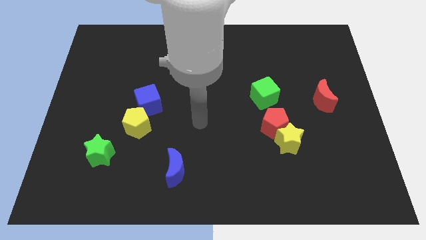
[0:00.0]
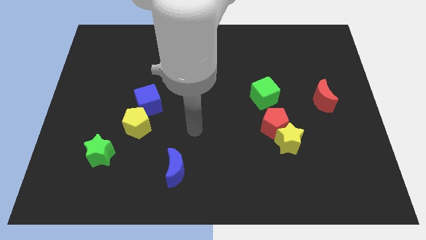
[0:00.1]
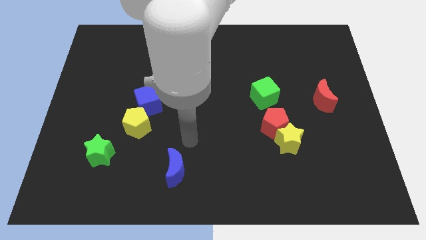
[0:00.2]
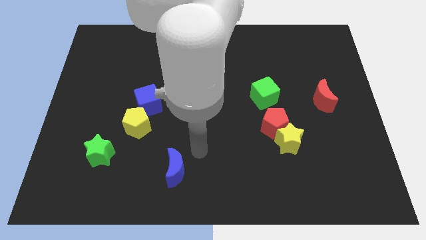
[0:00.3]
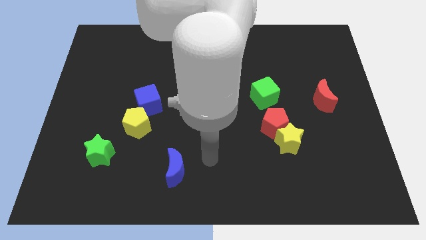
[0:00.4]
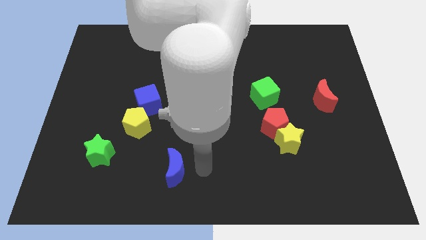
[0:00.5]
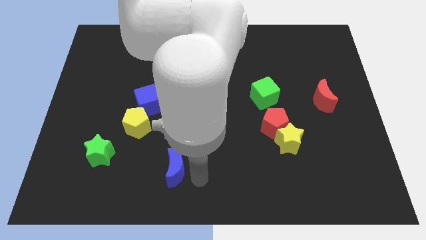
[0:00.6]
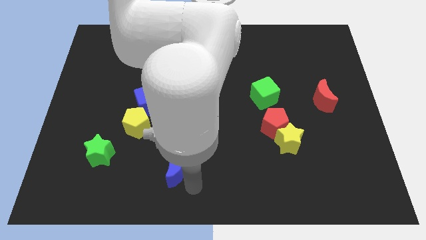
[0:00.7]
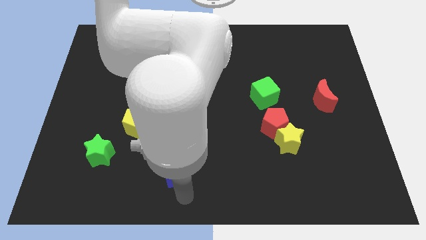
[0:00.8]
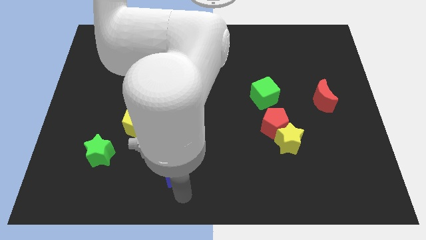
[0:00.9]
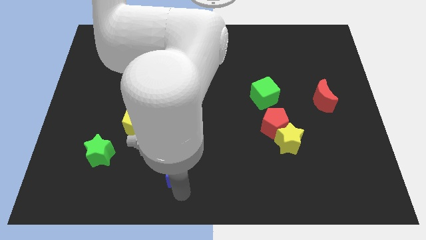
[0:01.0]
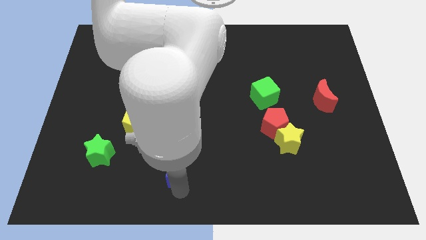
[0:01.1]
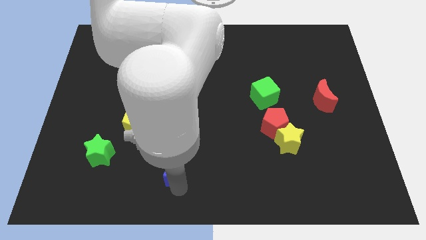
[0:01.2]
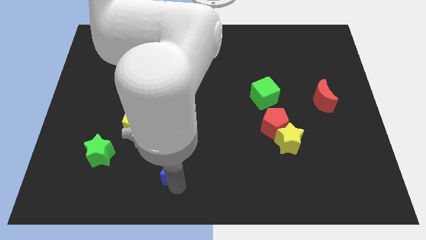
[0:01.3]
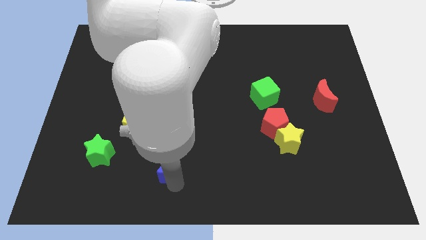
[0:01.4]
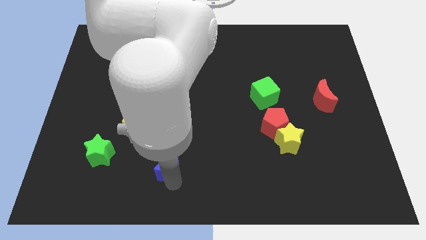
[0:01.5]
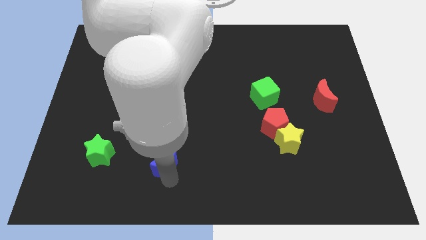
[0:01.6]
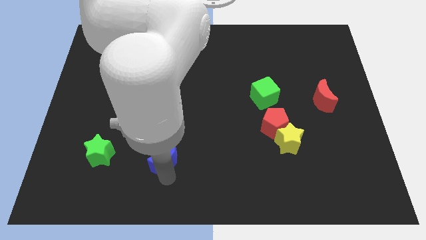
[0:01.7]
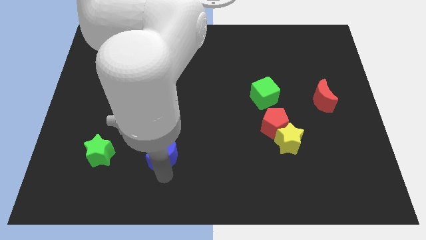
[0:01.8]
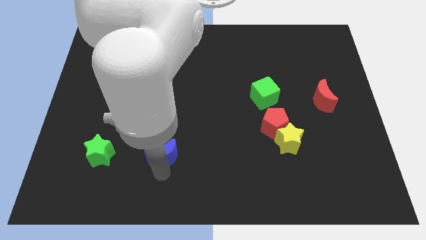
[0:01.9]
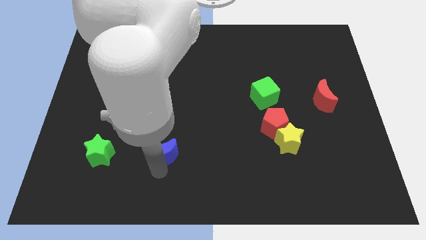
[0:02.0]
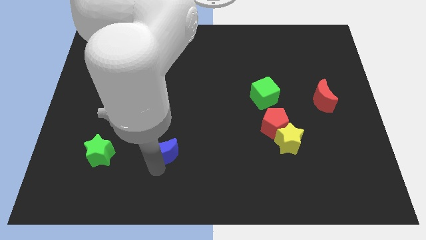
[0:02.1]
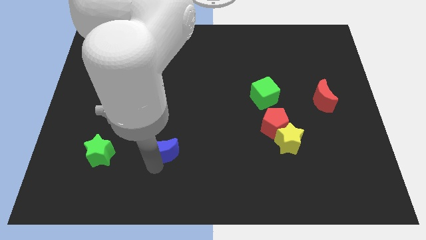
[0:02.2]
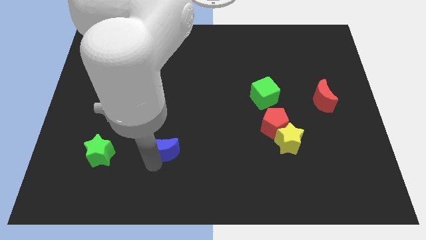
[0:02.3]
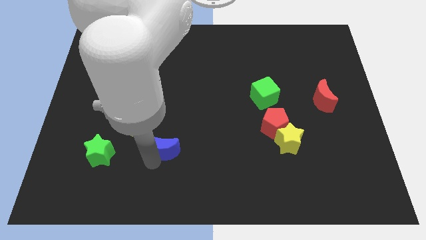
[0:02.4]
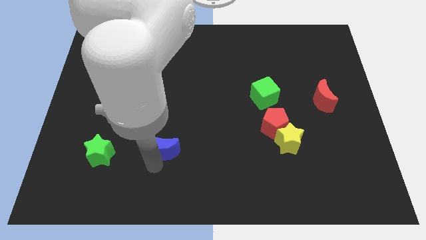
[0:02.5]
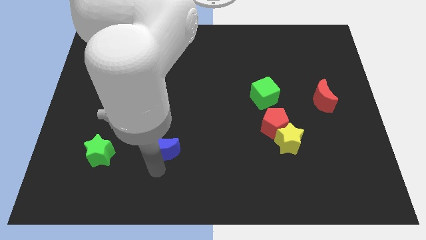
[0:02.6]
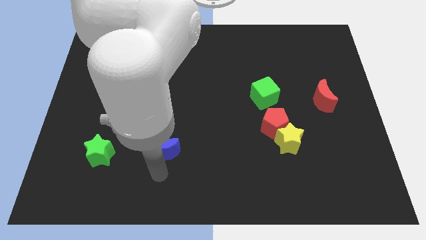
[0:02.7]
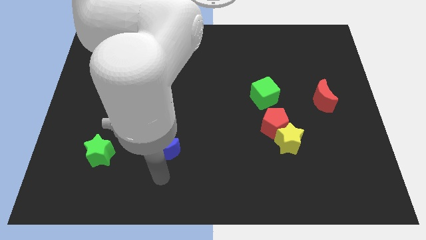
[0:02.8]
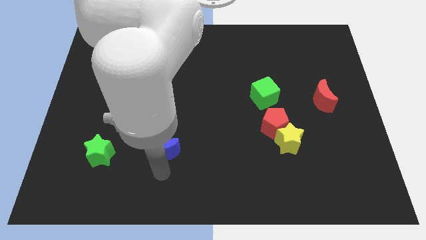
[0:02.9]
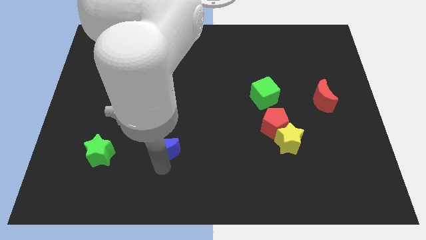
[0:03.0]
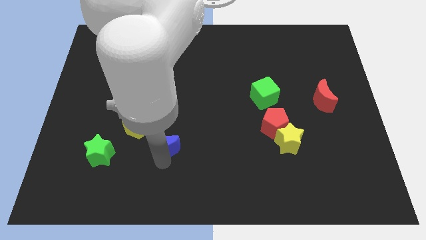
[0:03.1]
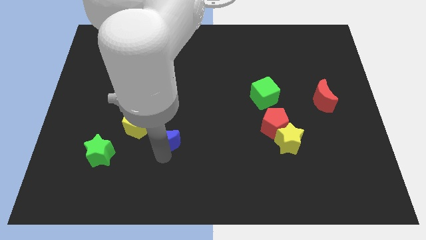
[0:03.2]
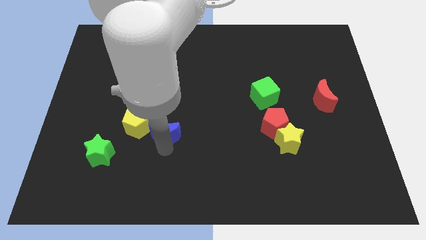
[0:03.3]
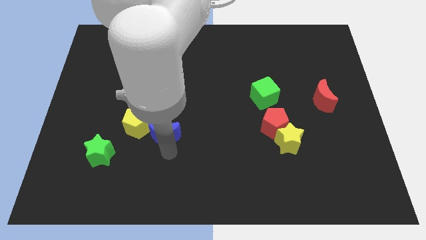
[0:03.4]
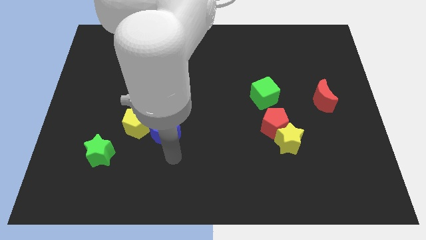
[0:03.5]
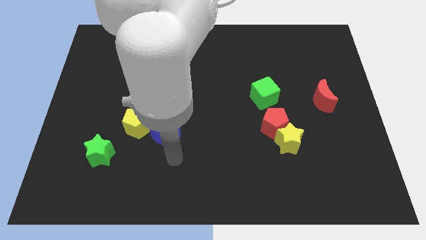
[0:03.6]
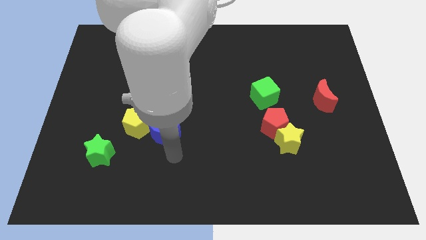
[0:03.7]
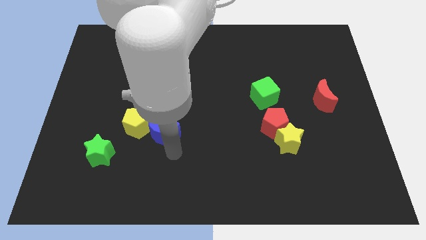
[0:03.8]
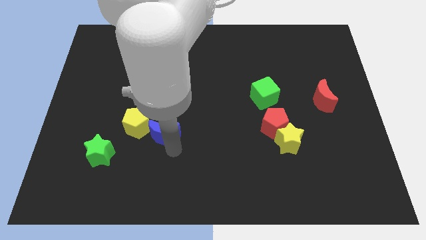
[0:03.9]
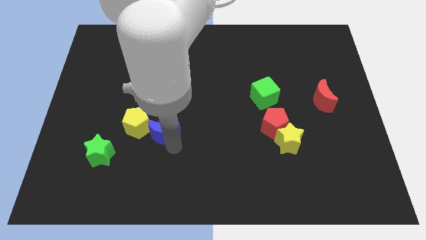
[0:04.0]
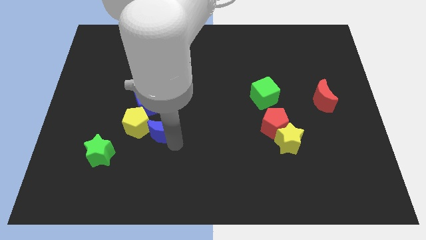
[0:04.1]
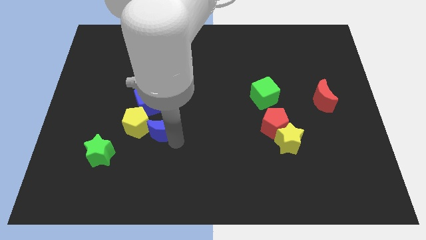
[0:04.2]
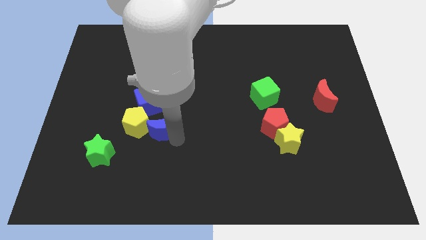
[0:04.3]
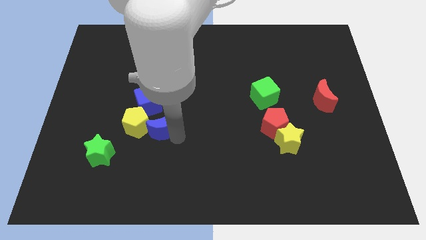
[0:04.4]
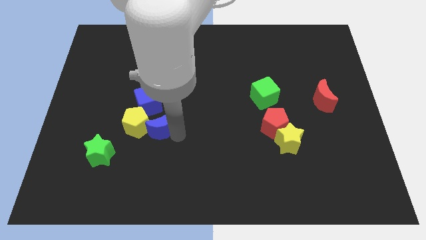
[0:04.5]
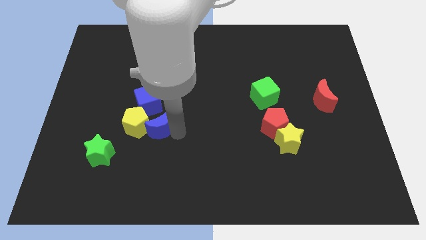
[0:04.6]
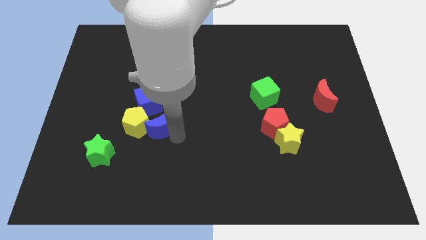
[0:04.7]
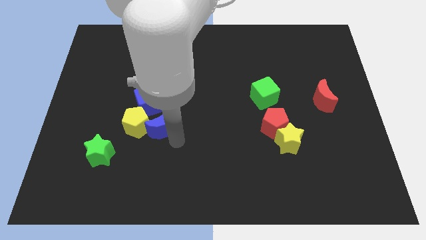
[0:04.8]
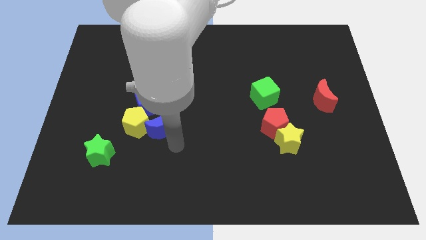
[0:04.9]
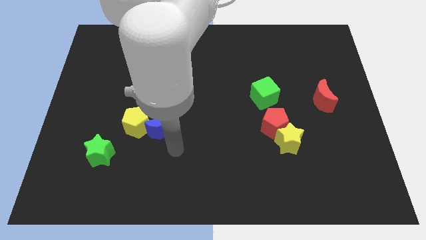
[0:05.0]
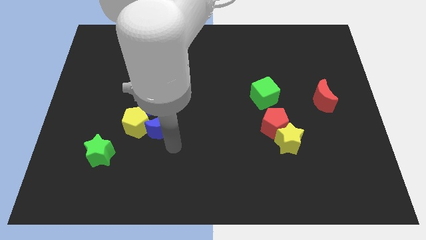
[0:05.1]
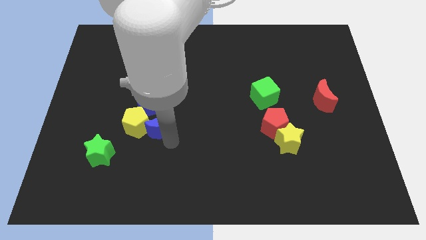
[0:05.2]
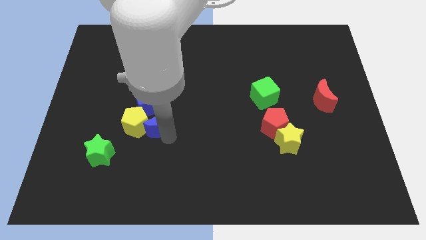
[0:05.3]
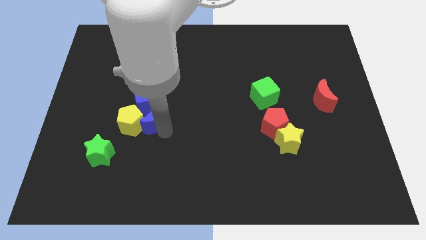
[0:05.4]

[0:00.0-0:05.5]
push the blue moon towards the blue cube

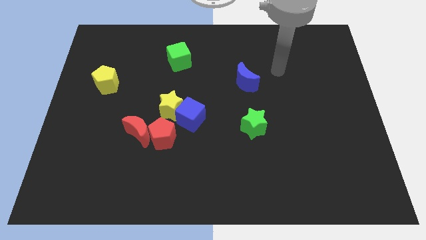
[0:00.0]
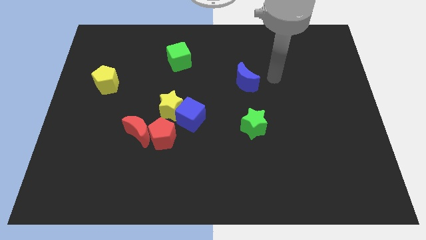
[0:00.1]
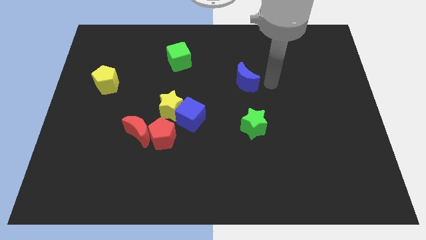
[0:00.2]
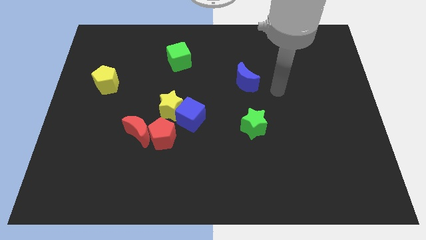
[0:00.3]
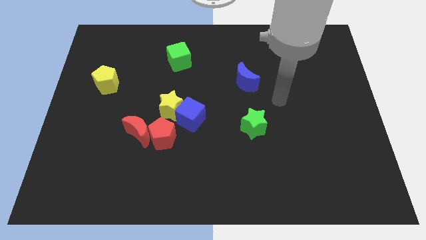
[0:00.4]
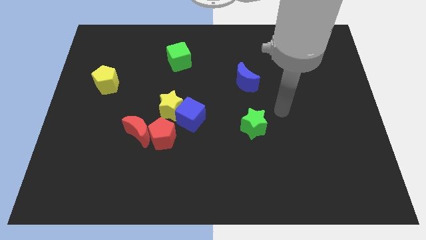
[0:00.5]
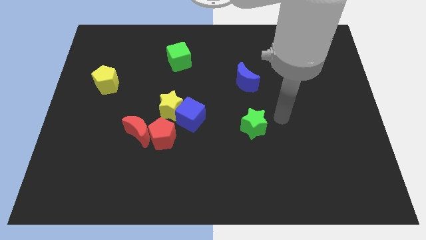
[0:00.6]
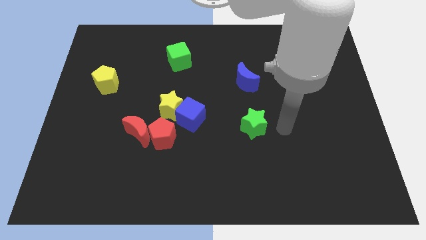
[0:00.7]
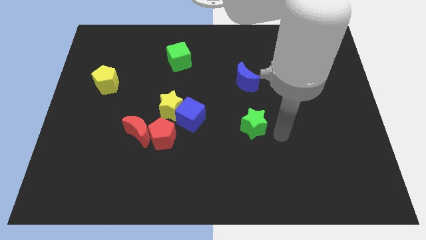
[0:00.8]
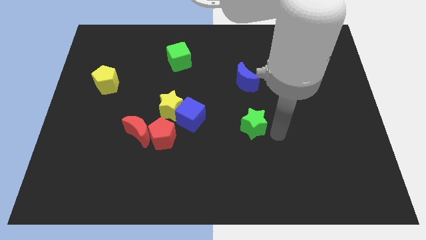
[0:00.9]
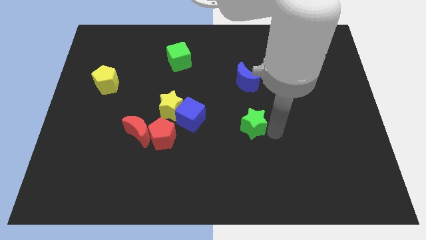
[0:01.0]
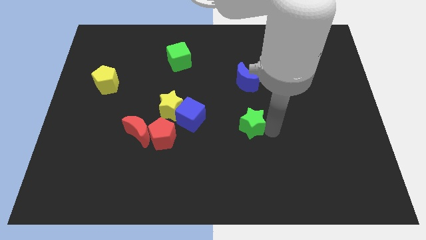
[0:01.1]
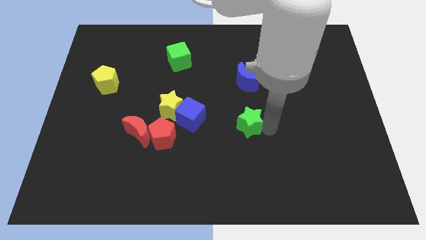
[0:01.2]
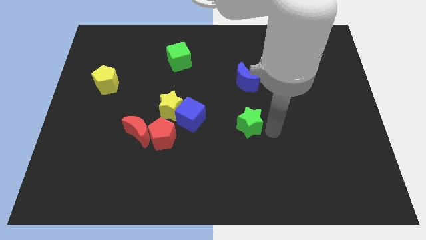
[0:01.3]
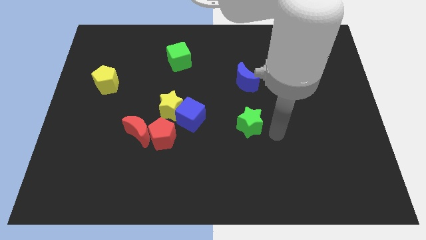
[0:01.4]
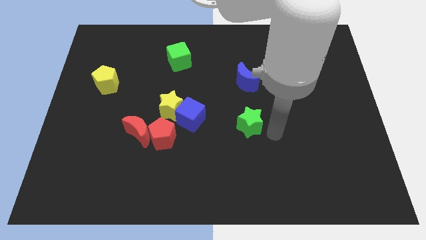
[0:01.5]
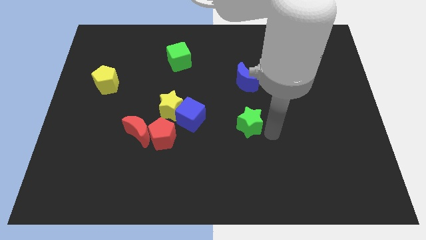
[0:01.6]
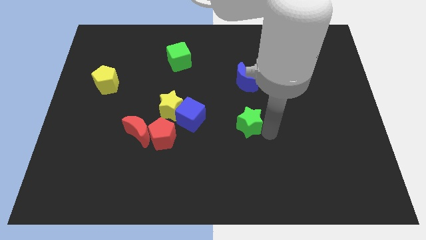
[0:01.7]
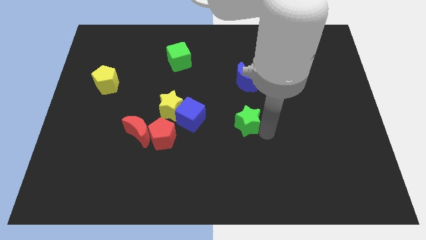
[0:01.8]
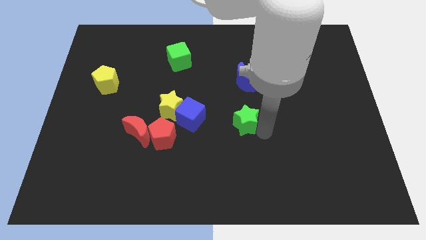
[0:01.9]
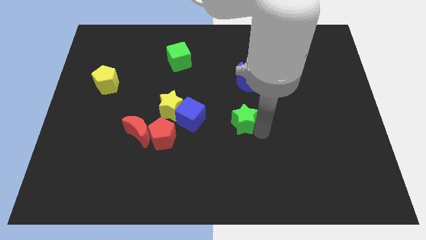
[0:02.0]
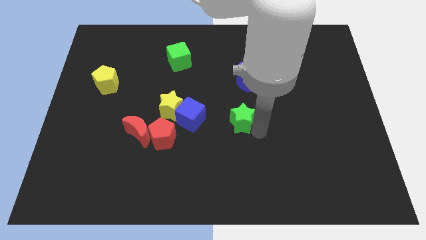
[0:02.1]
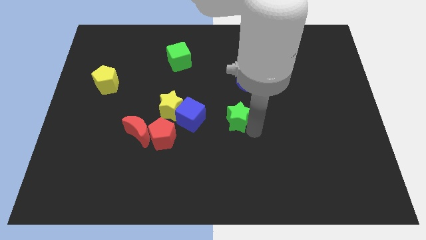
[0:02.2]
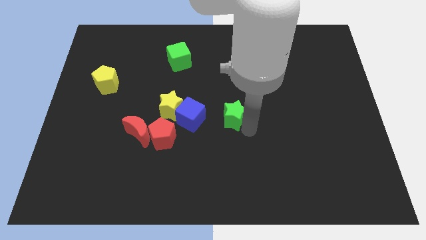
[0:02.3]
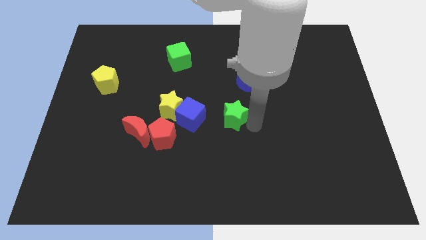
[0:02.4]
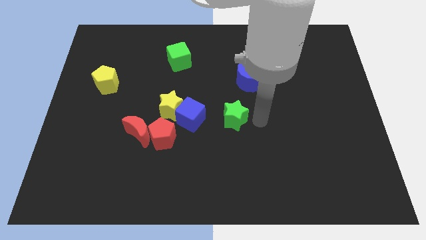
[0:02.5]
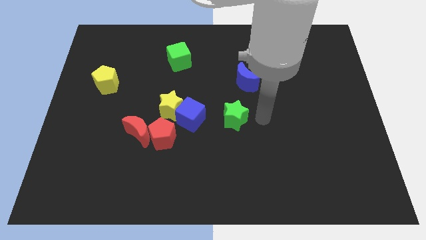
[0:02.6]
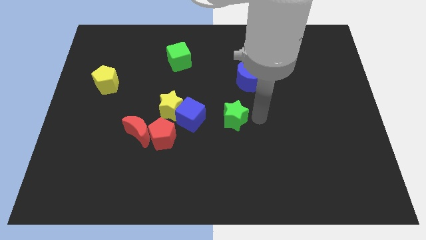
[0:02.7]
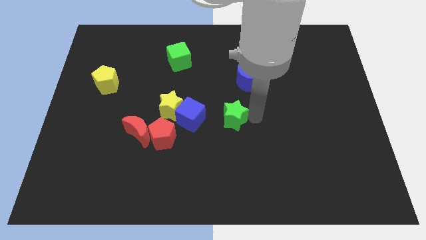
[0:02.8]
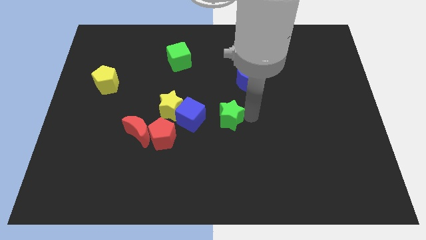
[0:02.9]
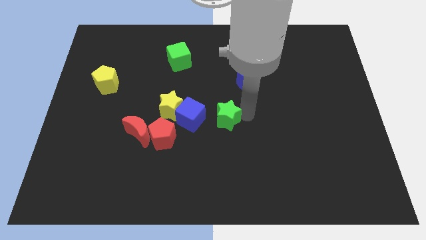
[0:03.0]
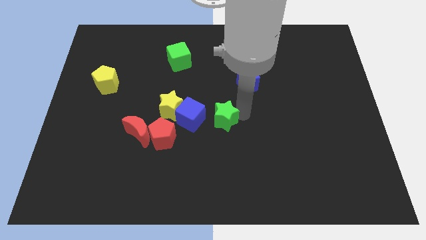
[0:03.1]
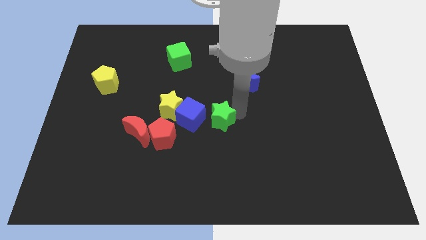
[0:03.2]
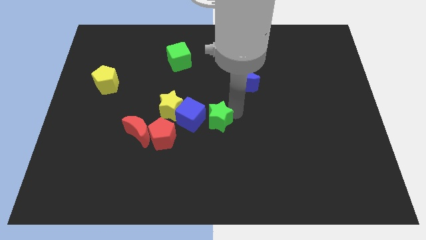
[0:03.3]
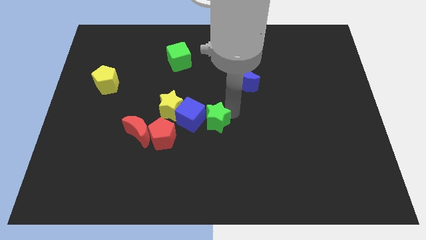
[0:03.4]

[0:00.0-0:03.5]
push the green star close to the blue cube
